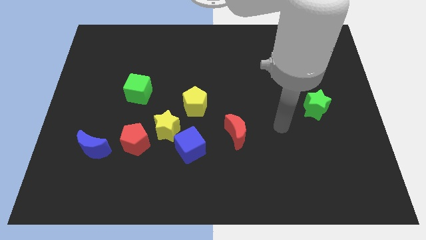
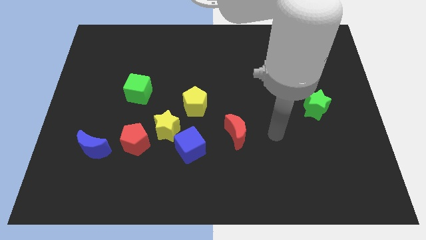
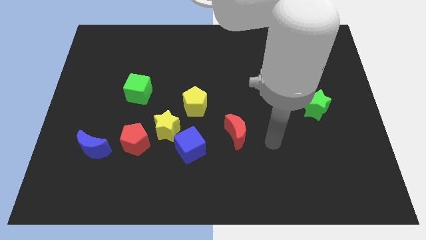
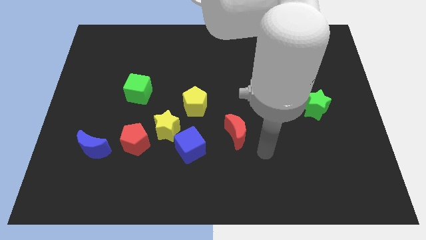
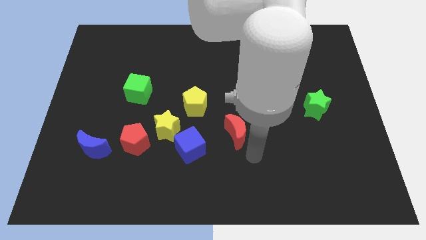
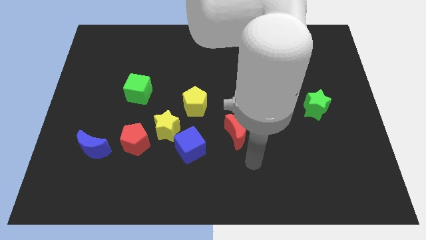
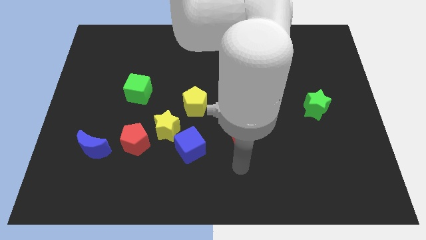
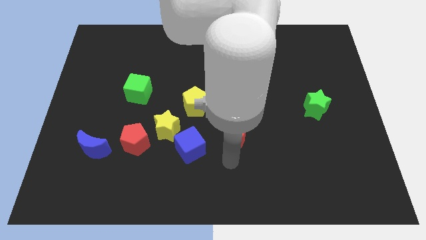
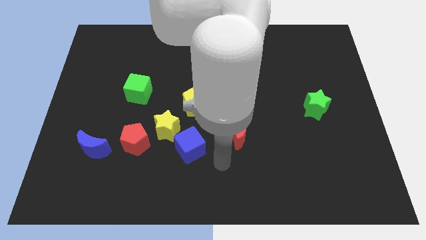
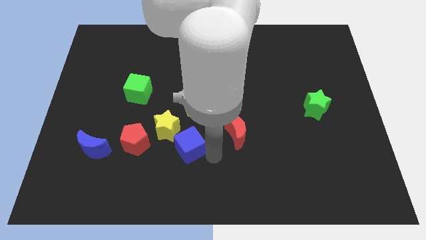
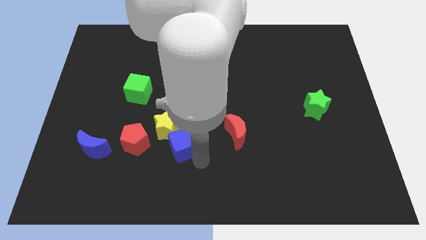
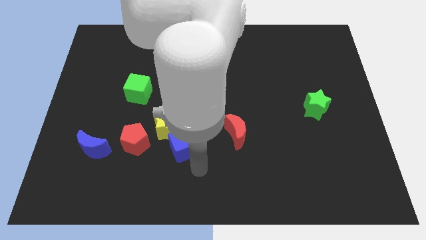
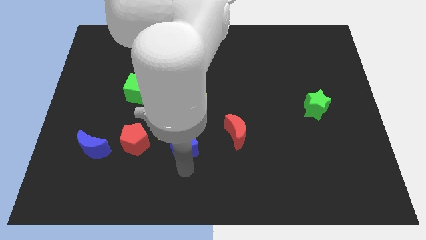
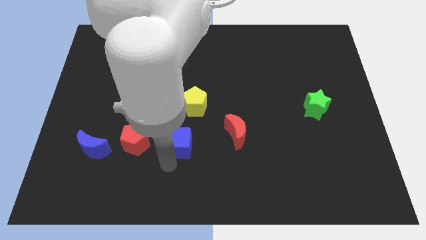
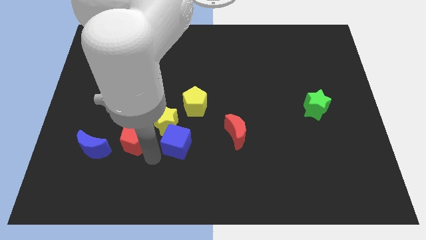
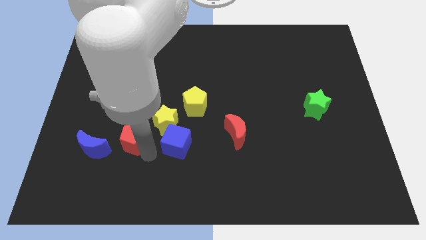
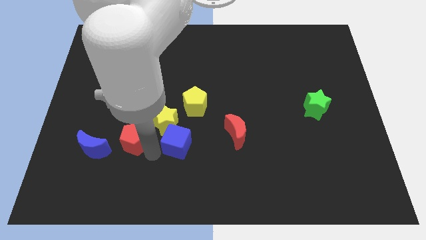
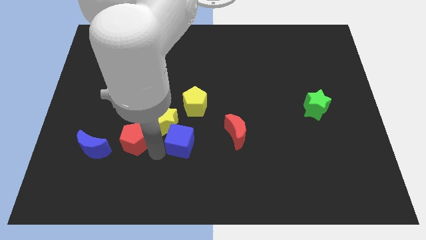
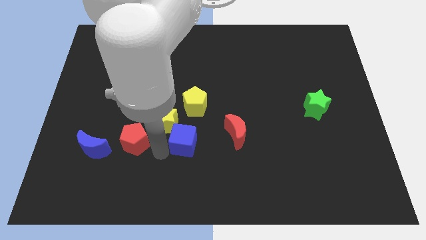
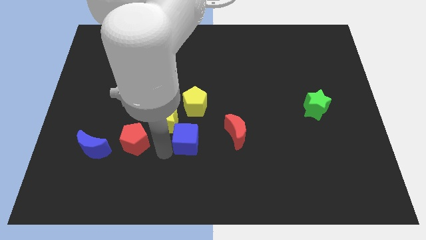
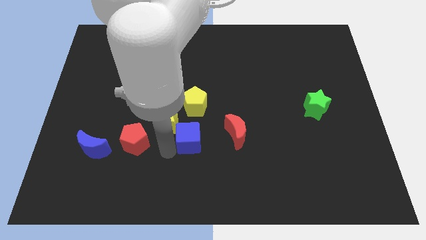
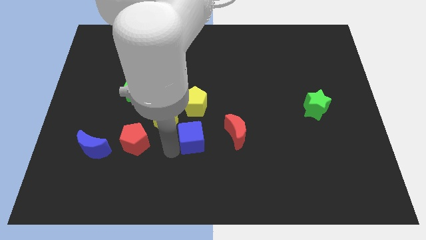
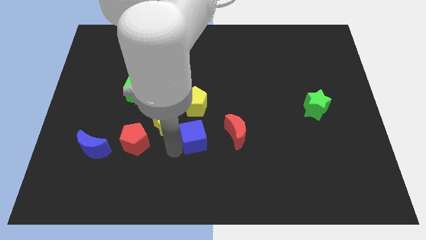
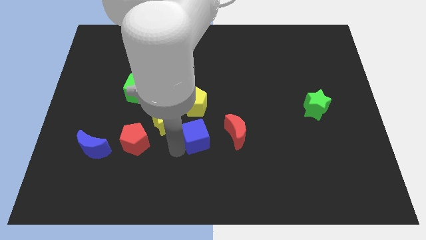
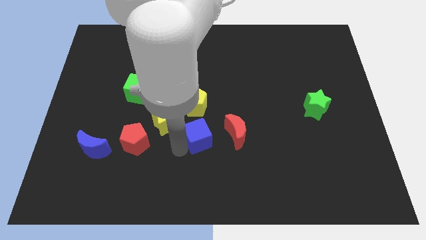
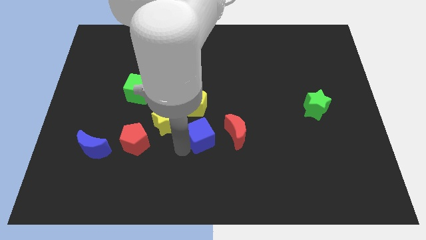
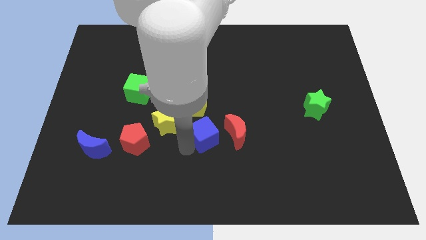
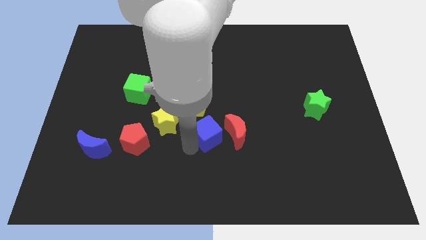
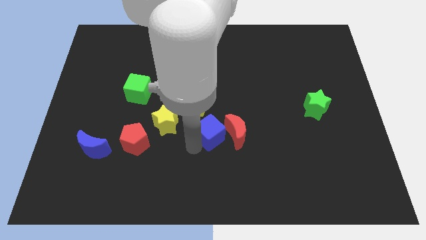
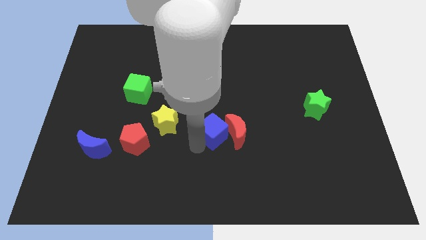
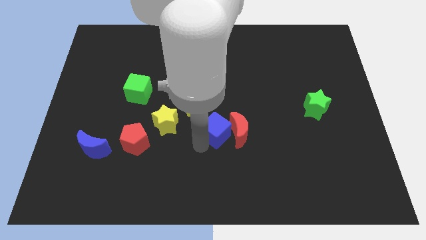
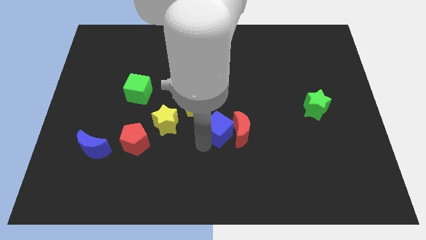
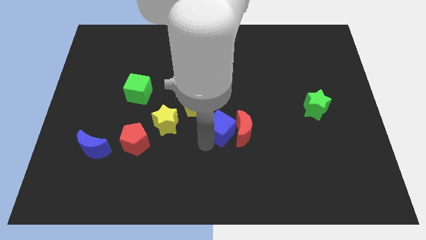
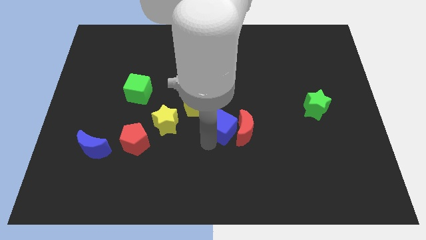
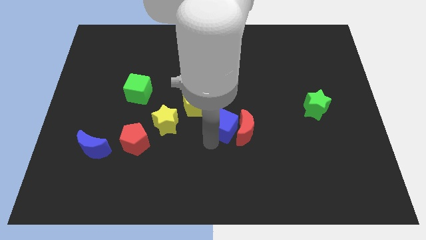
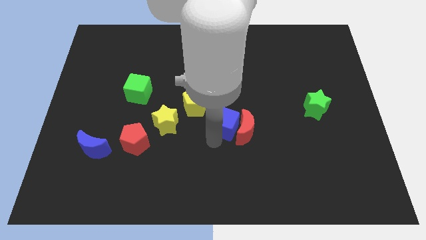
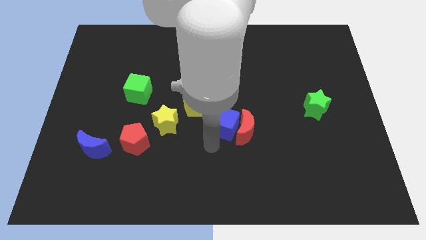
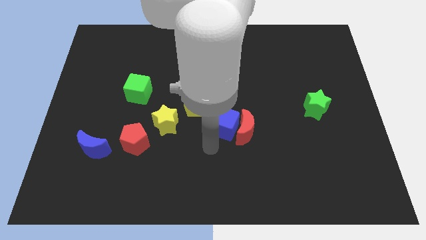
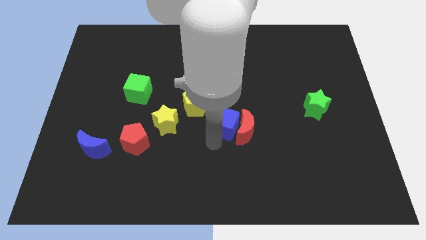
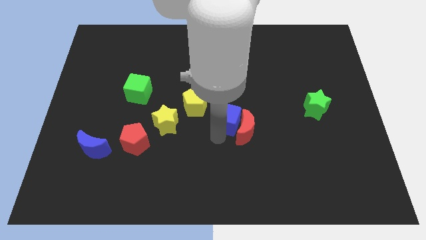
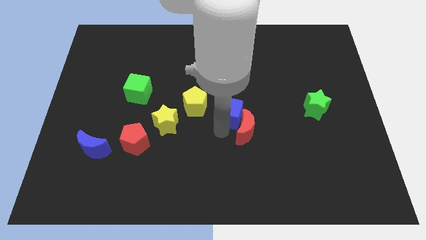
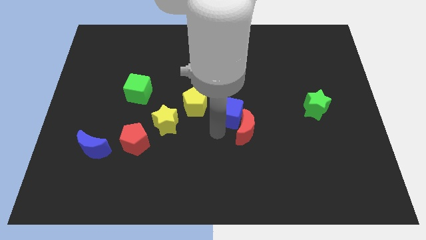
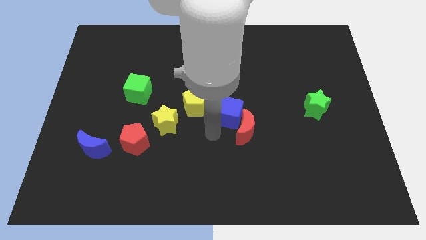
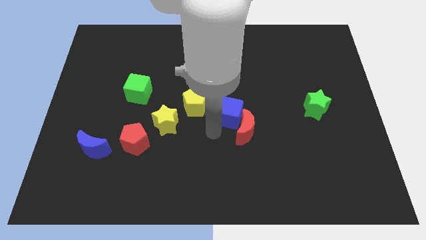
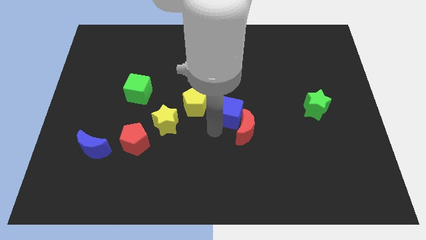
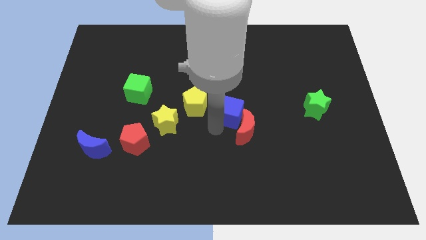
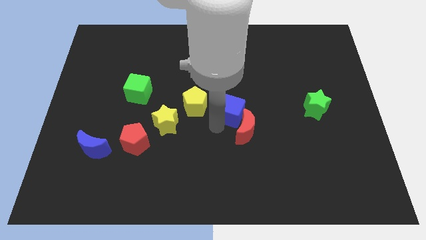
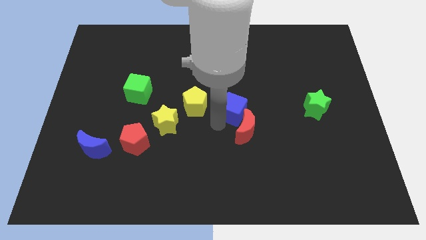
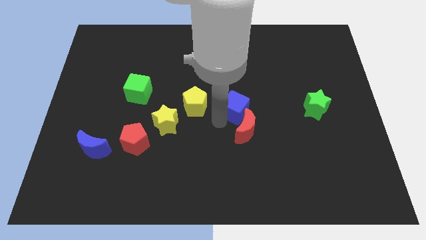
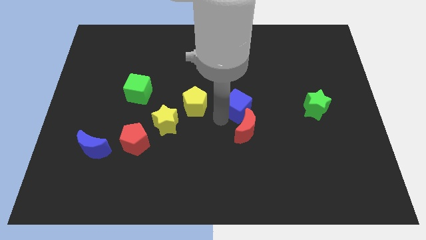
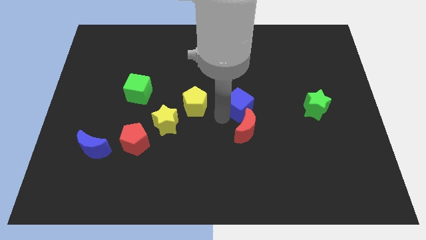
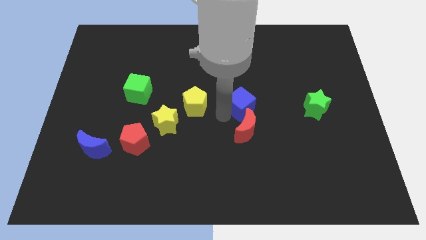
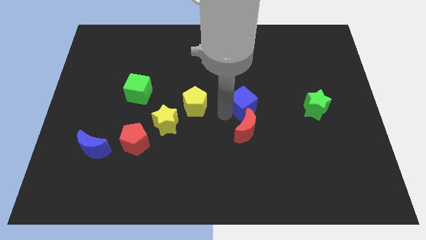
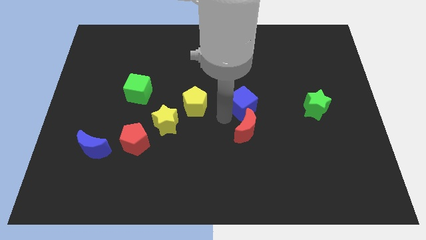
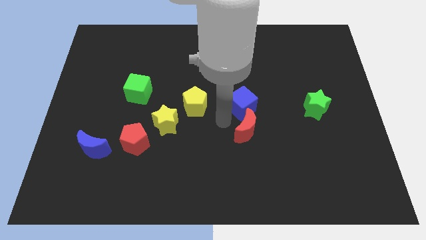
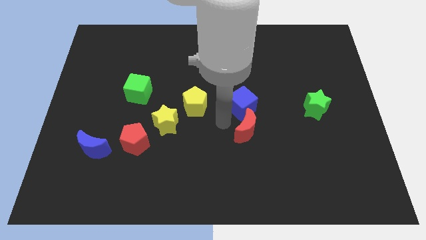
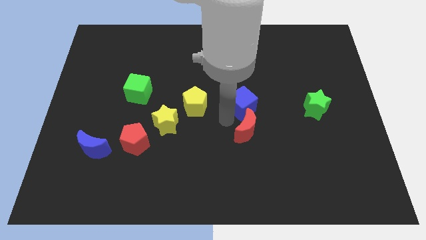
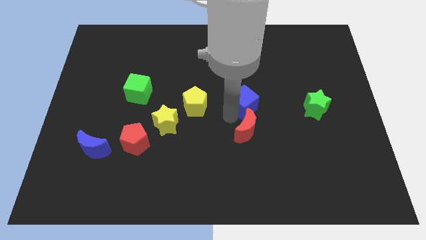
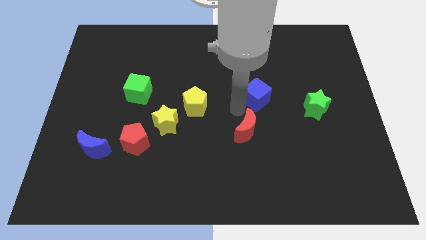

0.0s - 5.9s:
push the blue cube upwards and right

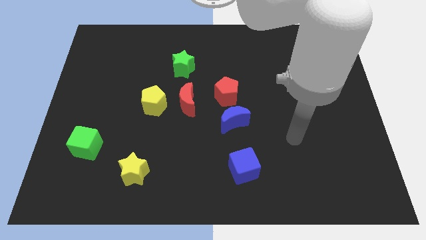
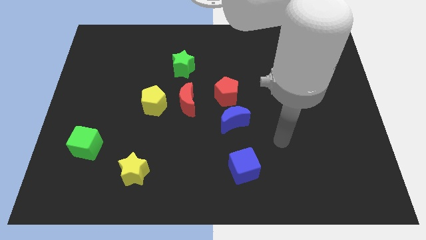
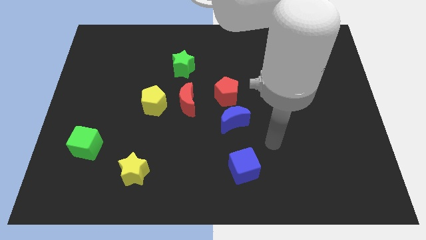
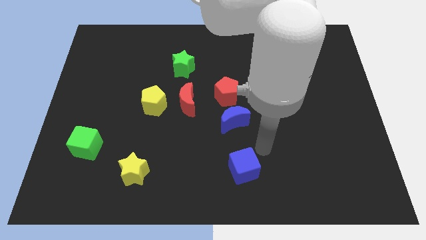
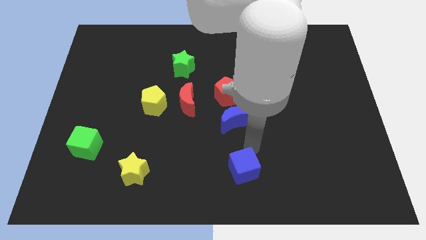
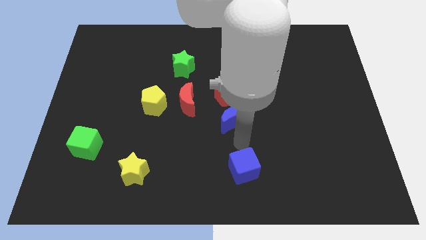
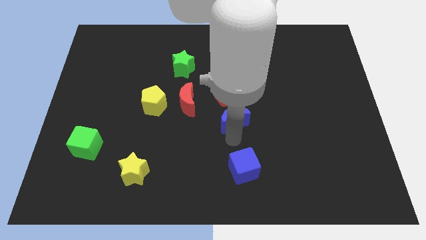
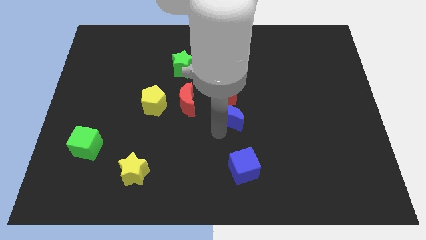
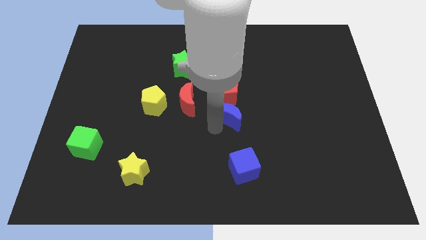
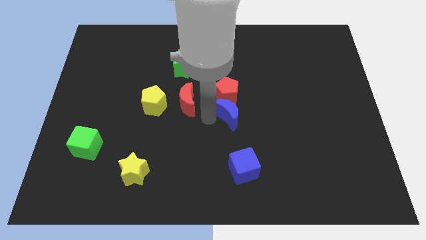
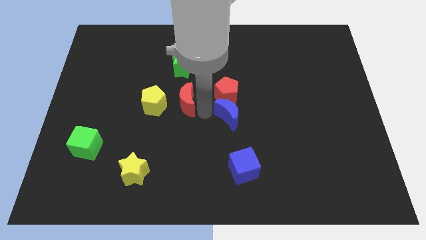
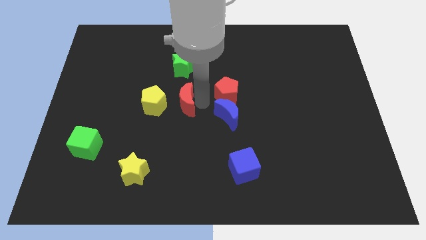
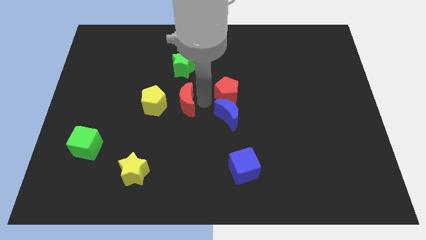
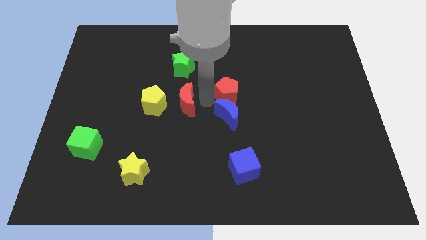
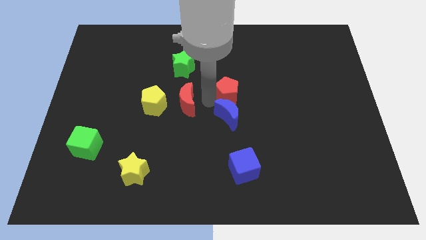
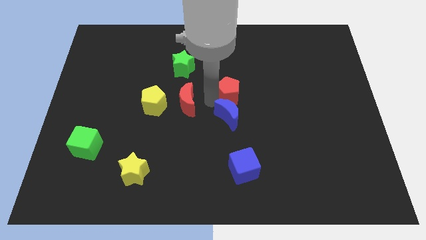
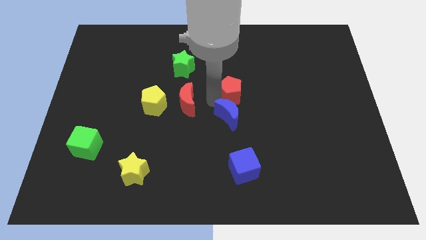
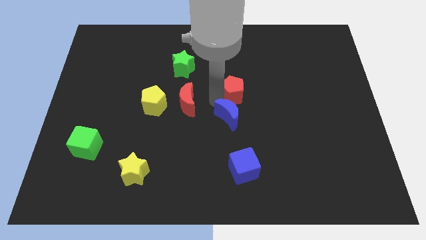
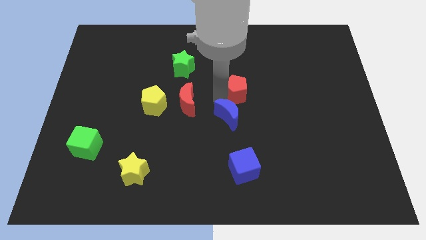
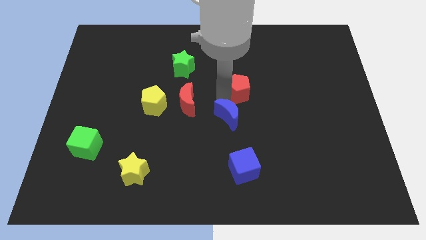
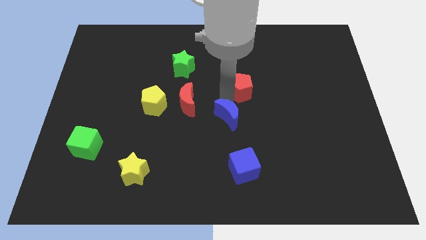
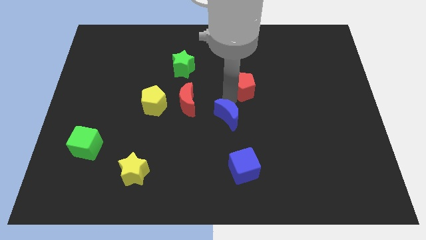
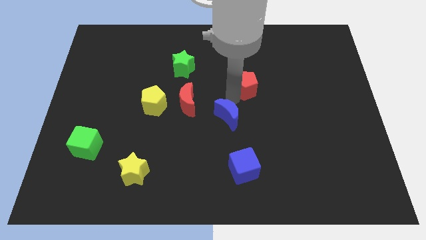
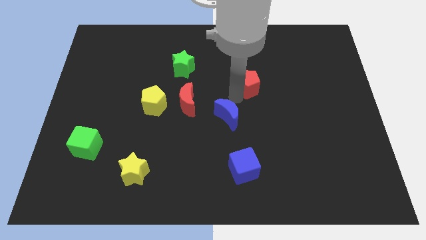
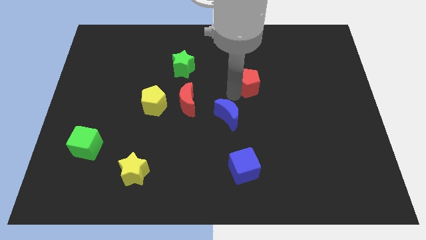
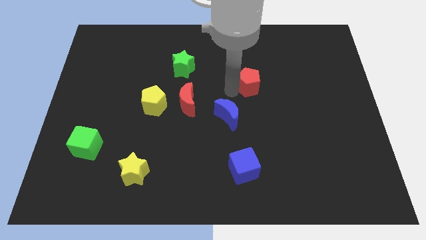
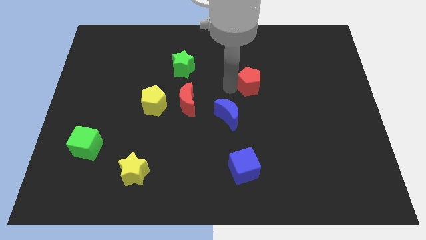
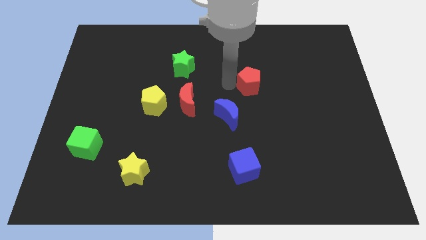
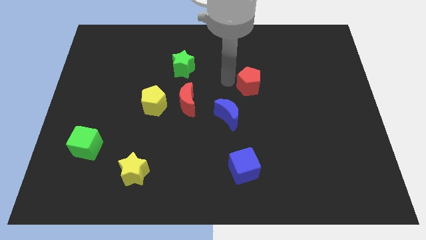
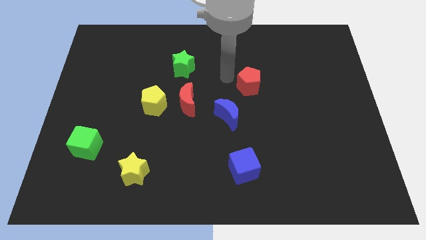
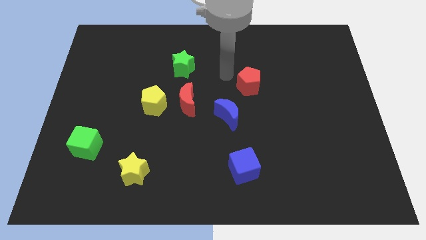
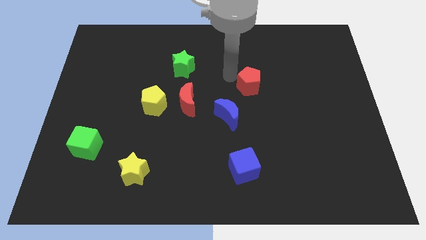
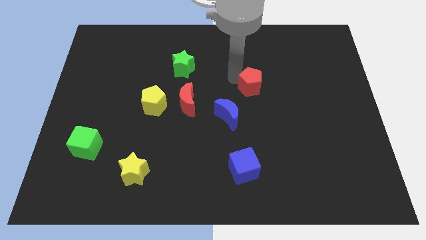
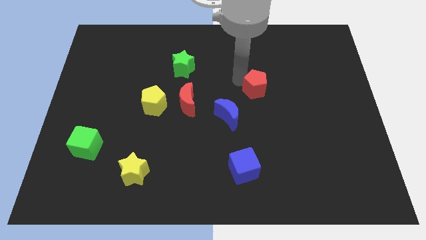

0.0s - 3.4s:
slightly move the red pentagon right
